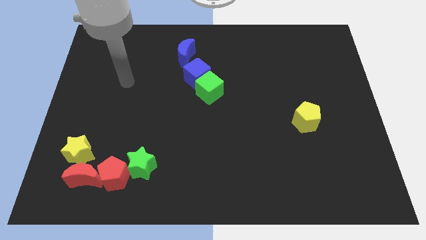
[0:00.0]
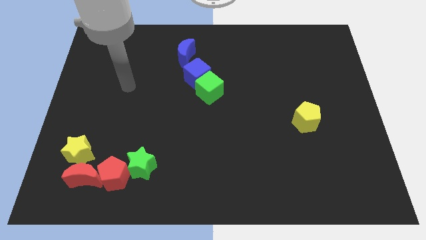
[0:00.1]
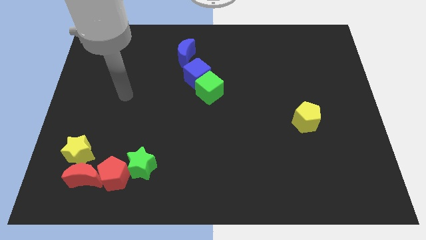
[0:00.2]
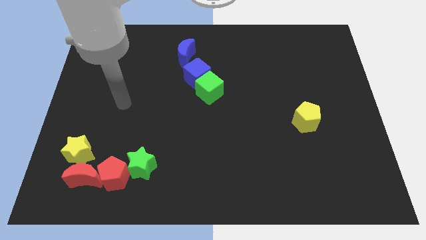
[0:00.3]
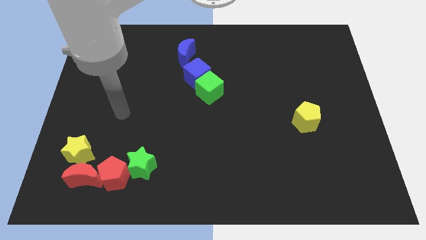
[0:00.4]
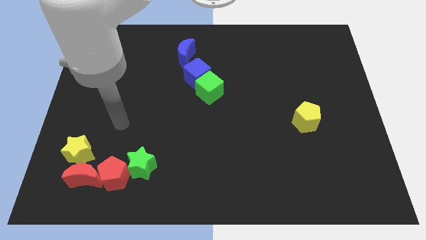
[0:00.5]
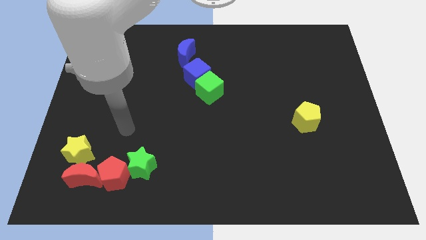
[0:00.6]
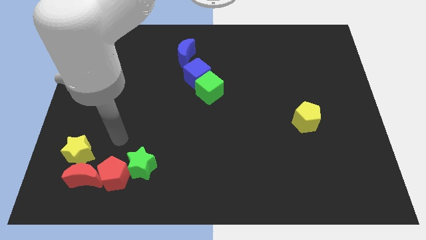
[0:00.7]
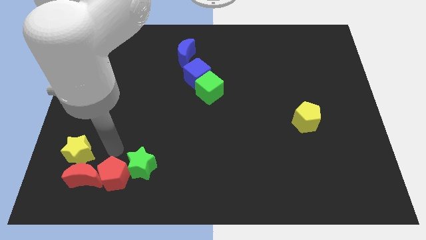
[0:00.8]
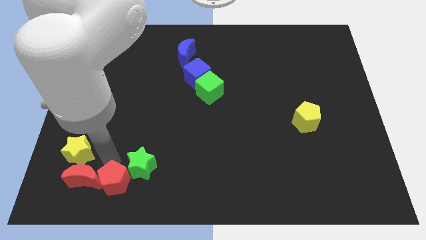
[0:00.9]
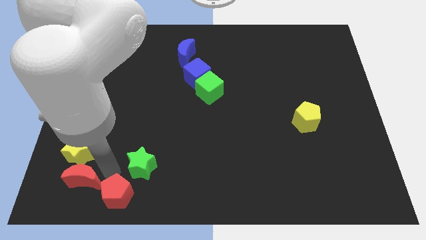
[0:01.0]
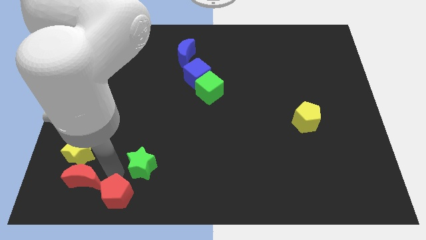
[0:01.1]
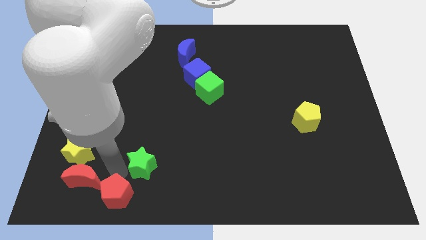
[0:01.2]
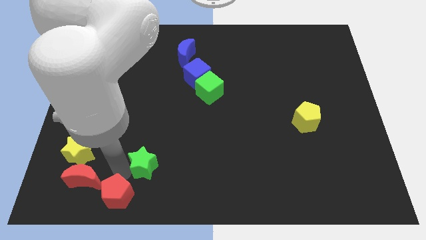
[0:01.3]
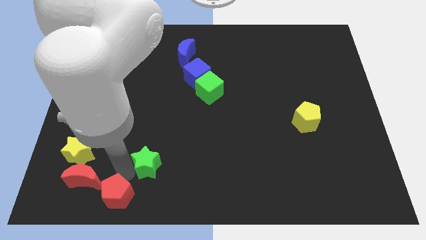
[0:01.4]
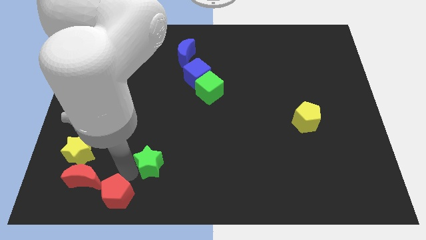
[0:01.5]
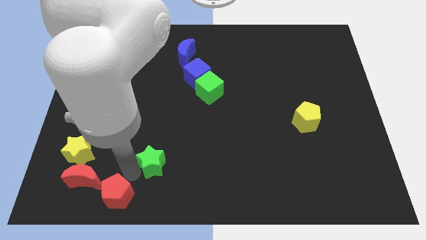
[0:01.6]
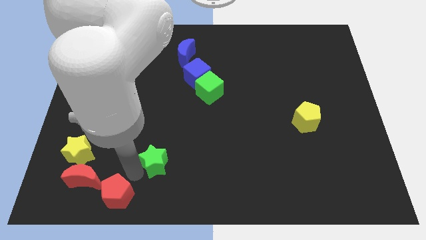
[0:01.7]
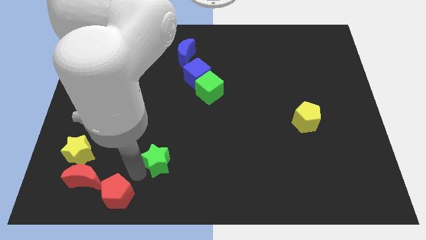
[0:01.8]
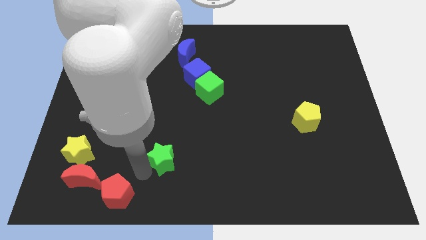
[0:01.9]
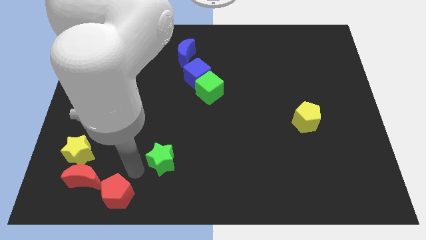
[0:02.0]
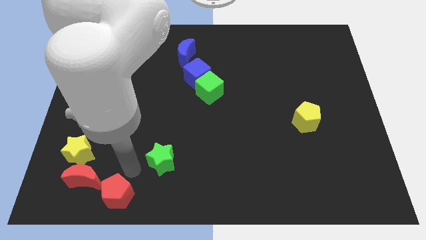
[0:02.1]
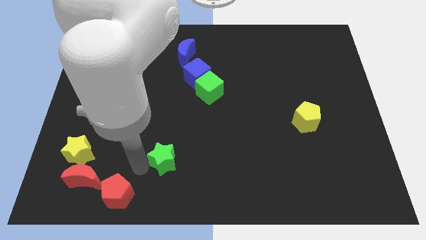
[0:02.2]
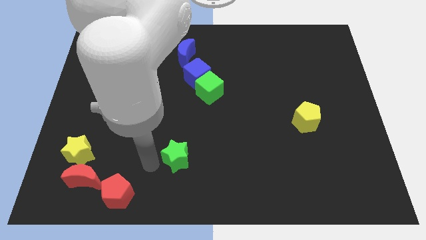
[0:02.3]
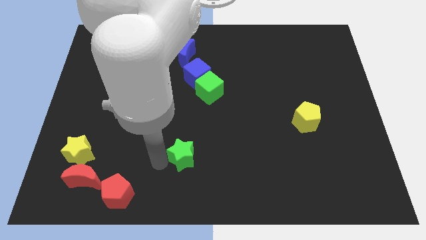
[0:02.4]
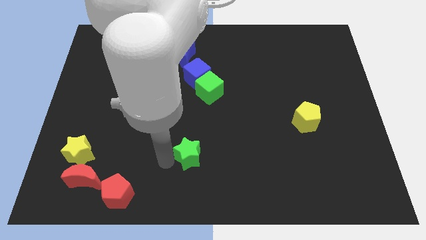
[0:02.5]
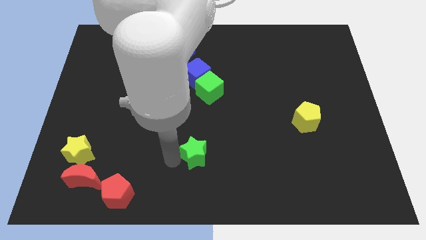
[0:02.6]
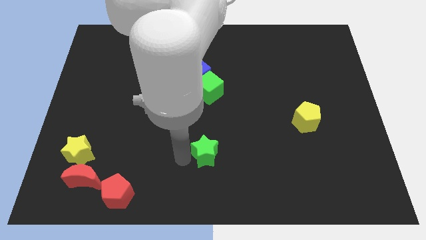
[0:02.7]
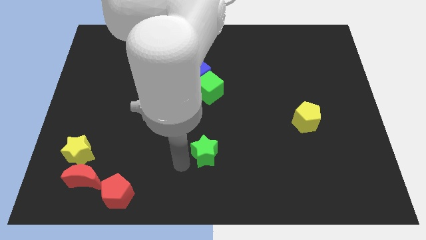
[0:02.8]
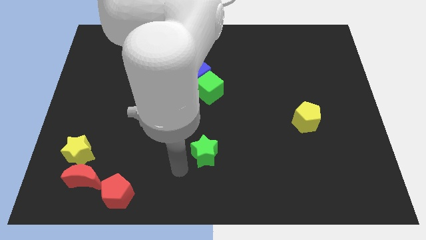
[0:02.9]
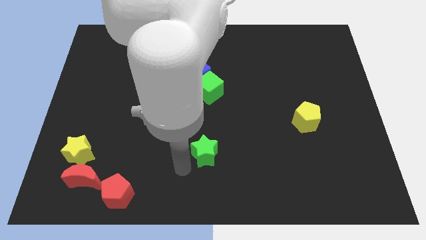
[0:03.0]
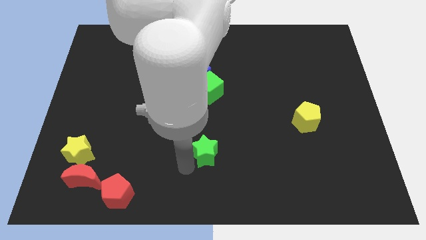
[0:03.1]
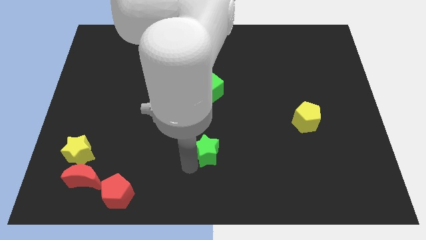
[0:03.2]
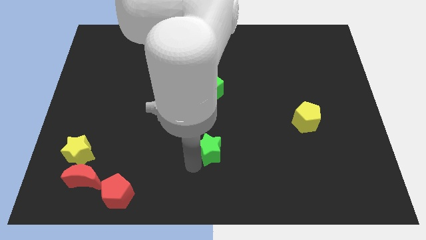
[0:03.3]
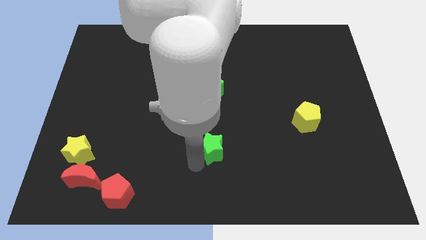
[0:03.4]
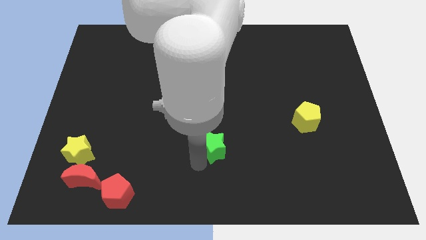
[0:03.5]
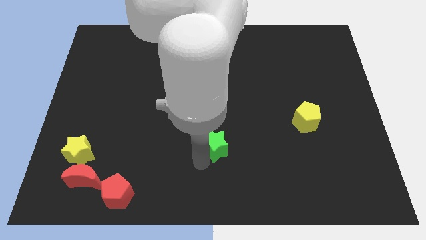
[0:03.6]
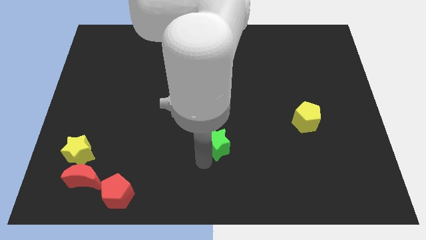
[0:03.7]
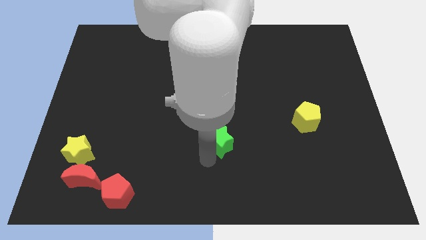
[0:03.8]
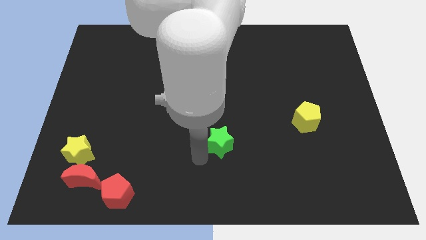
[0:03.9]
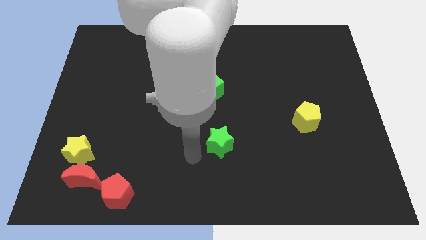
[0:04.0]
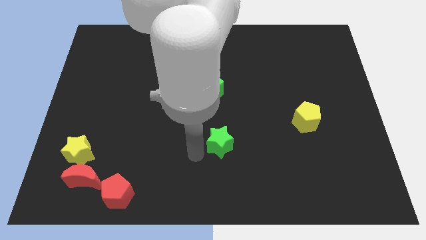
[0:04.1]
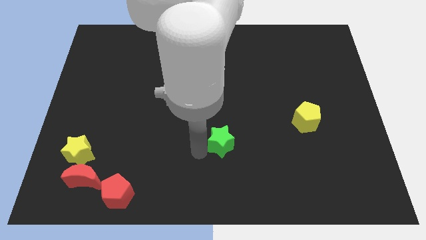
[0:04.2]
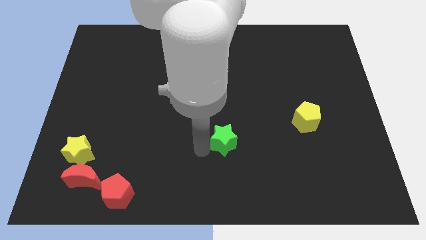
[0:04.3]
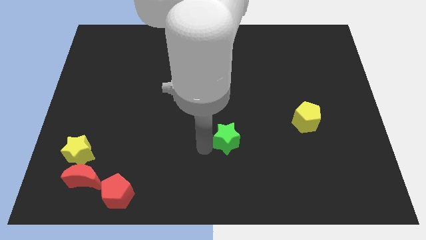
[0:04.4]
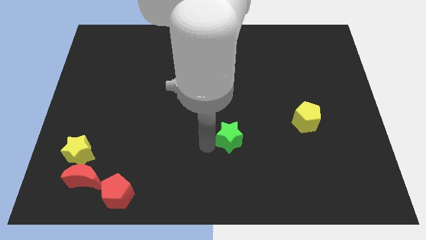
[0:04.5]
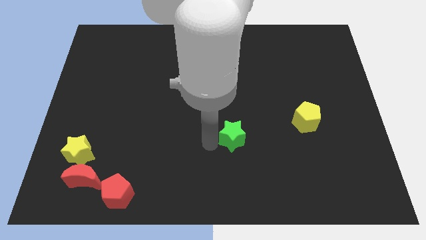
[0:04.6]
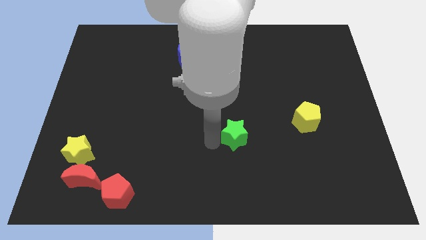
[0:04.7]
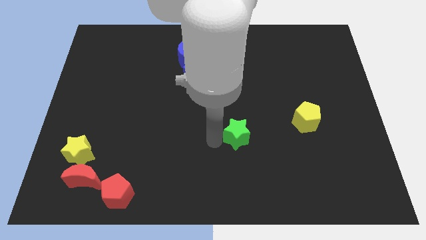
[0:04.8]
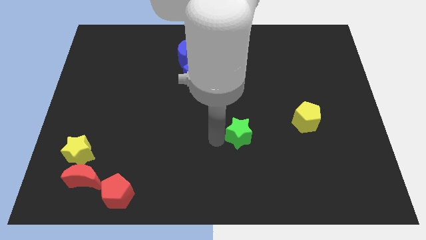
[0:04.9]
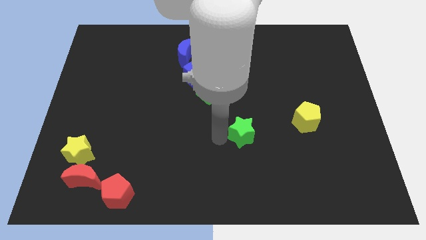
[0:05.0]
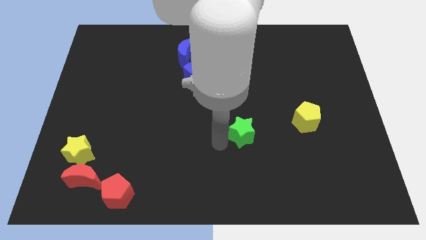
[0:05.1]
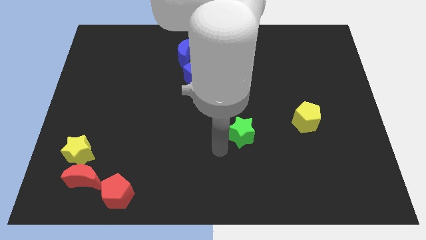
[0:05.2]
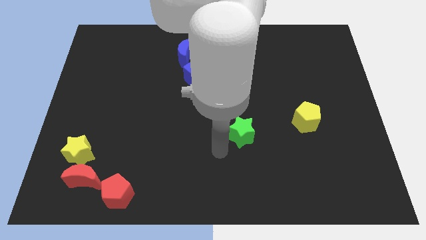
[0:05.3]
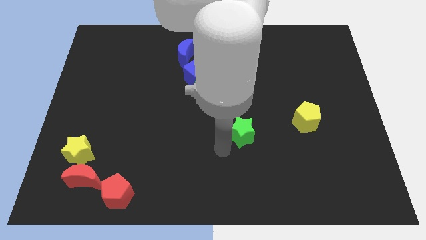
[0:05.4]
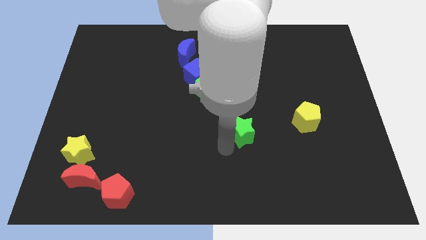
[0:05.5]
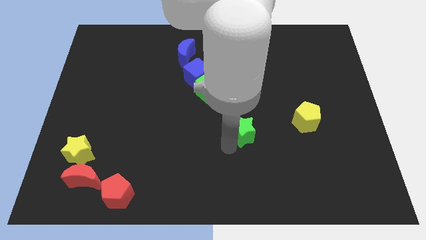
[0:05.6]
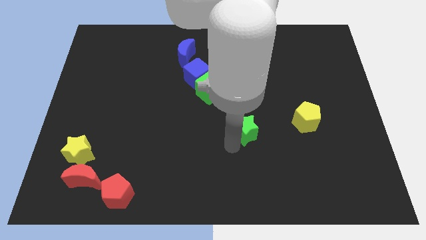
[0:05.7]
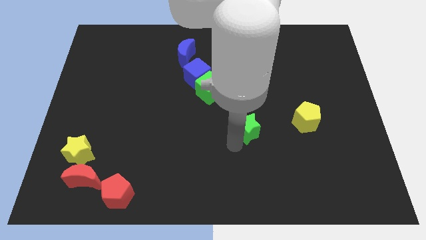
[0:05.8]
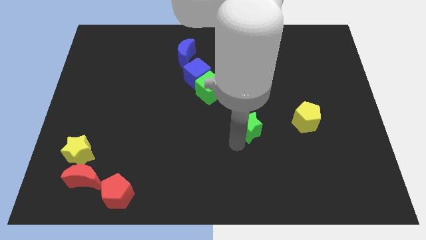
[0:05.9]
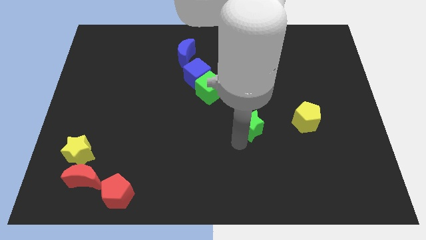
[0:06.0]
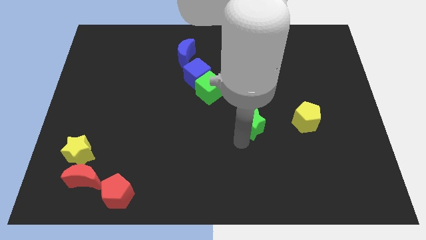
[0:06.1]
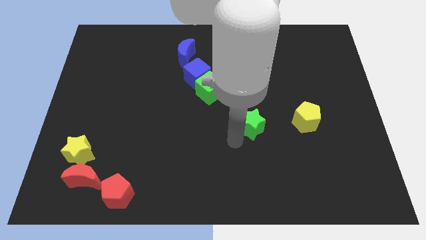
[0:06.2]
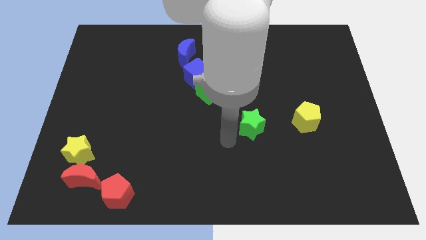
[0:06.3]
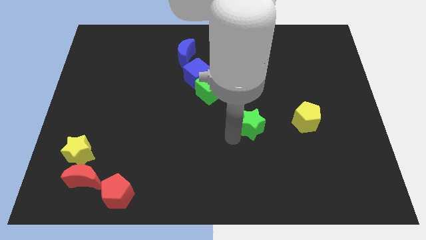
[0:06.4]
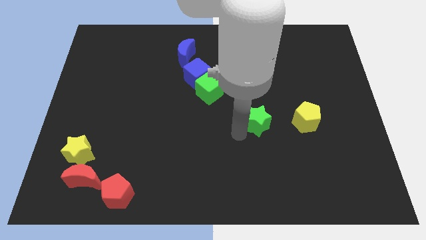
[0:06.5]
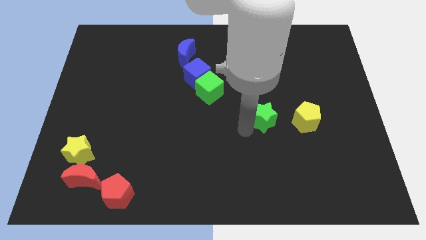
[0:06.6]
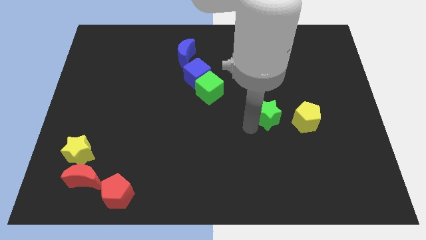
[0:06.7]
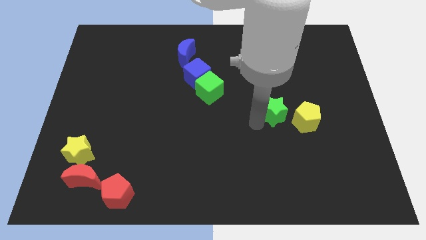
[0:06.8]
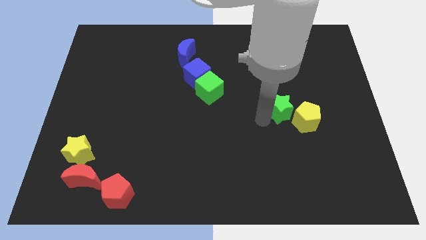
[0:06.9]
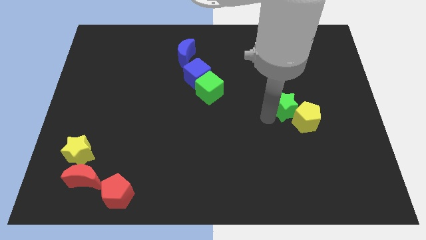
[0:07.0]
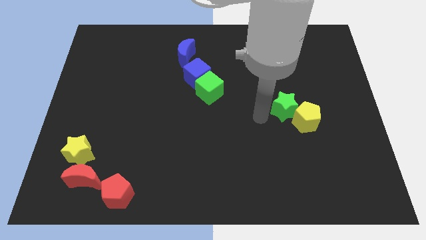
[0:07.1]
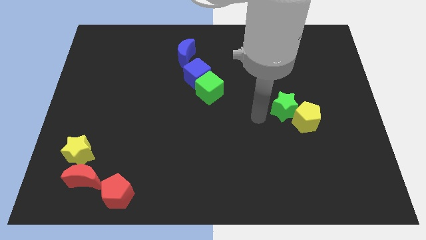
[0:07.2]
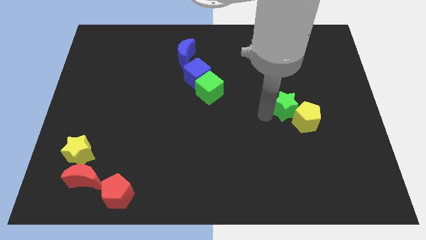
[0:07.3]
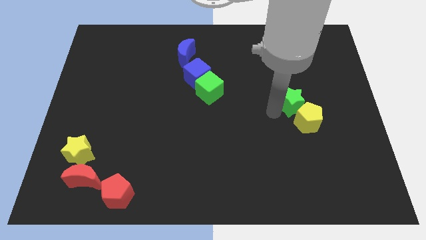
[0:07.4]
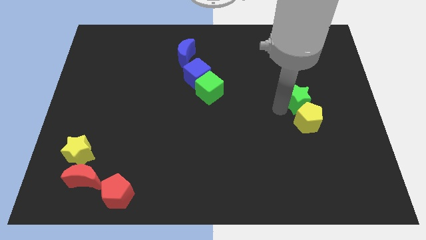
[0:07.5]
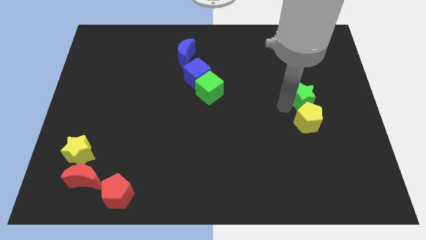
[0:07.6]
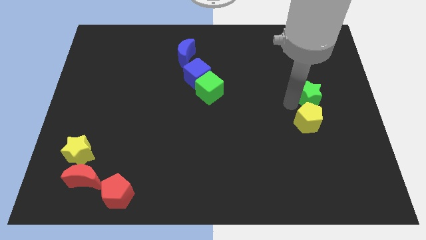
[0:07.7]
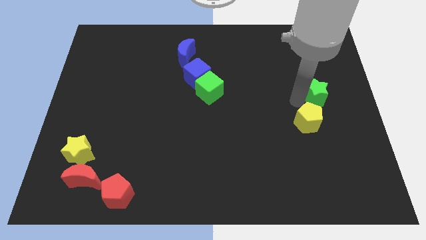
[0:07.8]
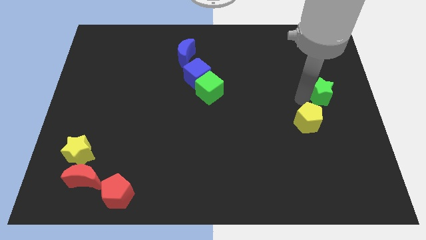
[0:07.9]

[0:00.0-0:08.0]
move the green star to the right side of the board
